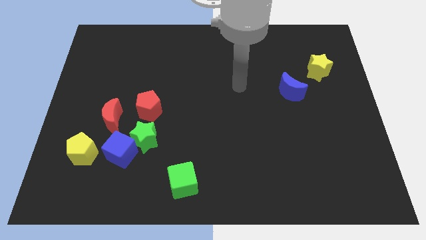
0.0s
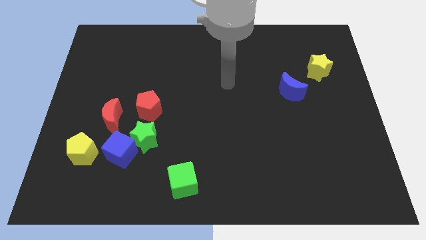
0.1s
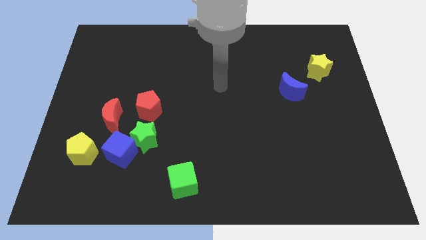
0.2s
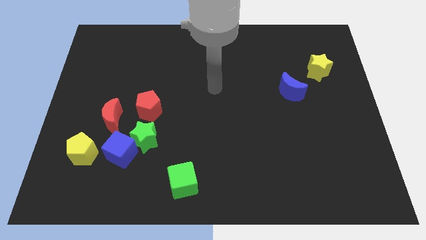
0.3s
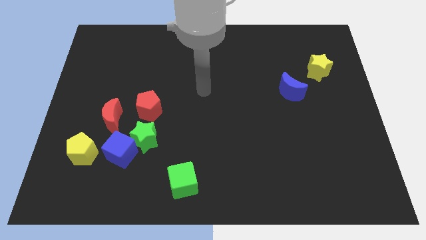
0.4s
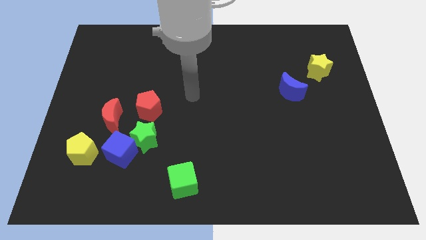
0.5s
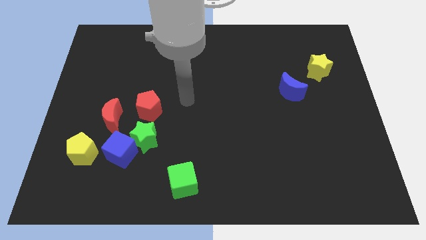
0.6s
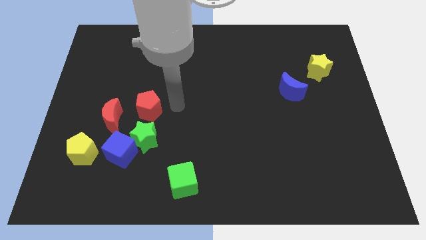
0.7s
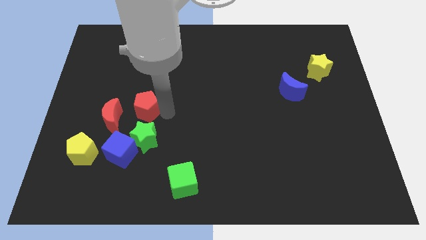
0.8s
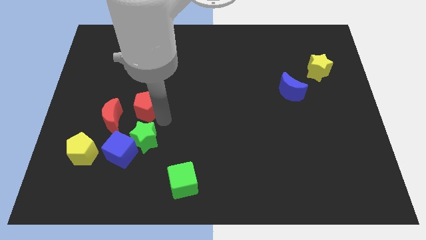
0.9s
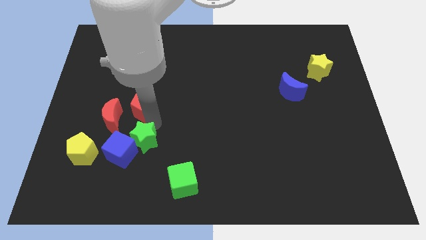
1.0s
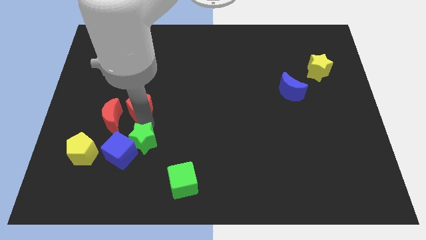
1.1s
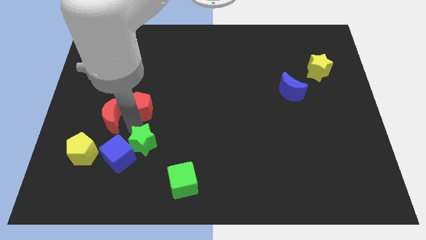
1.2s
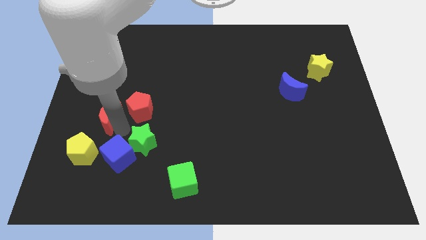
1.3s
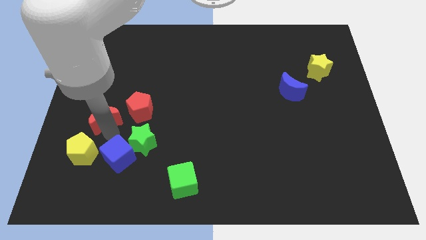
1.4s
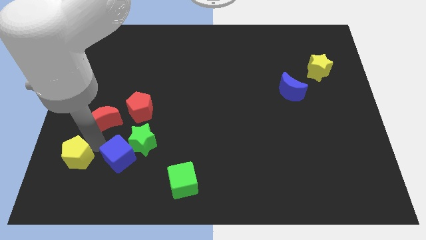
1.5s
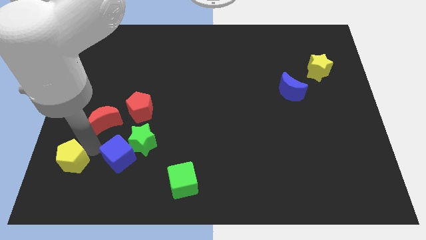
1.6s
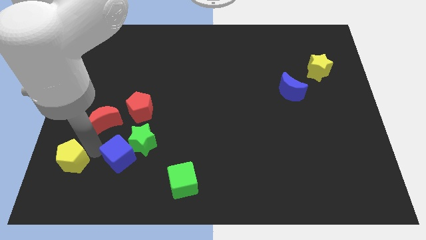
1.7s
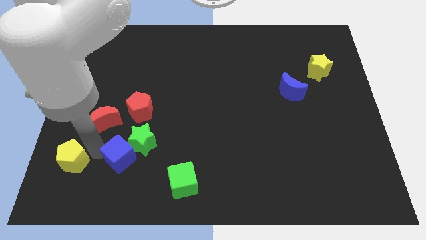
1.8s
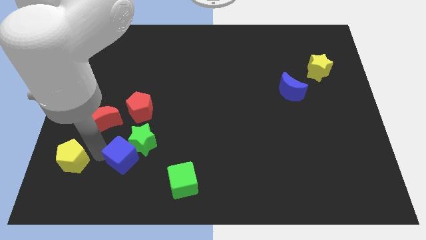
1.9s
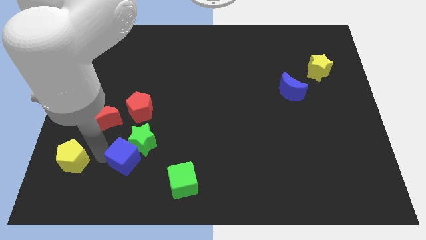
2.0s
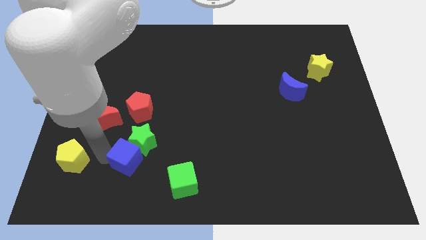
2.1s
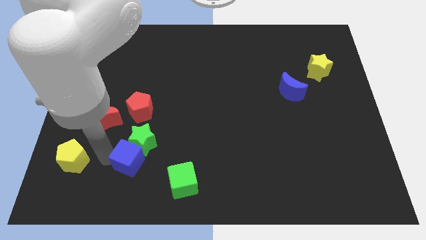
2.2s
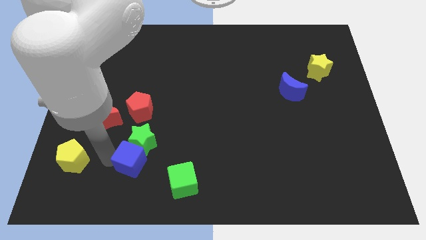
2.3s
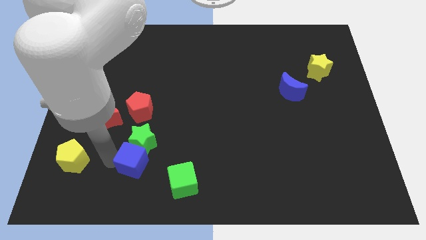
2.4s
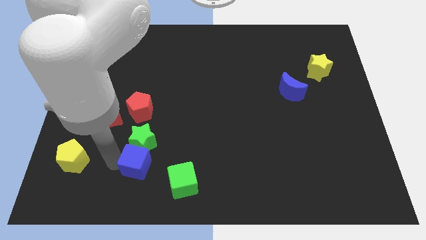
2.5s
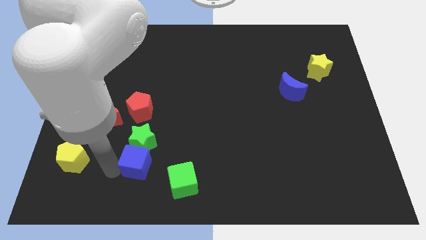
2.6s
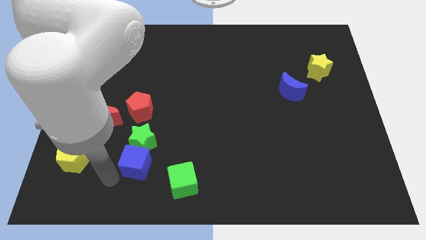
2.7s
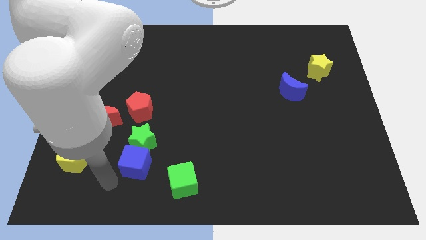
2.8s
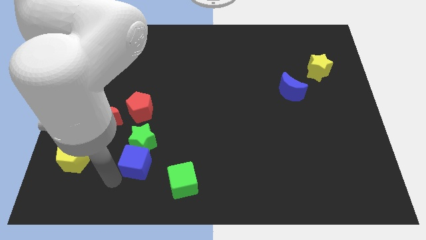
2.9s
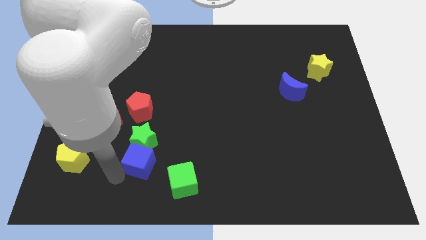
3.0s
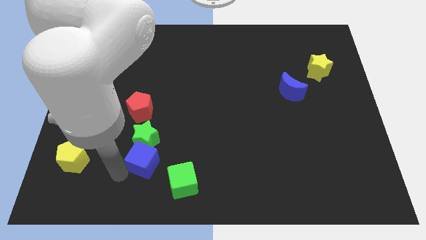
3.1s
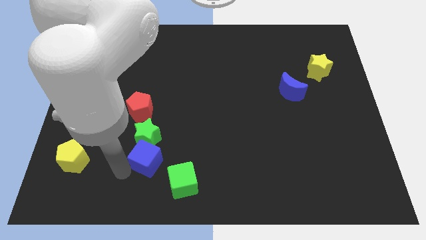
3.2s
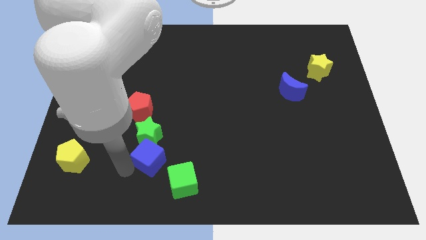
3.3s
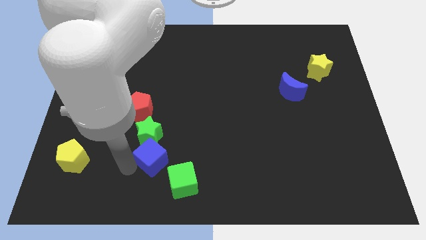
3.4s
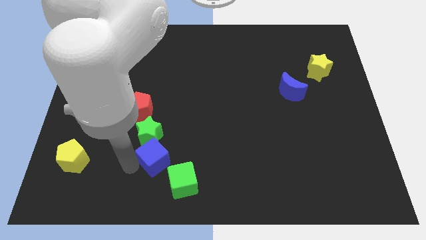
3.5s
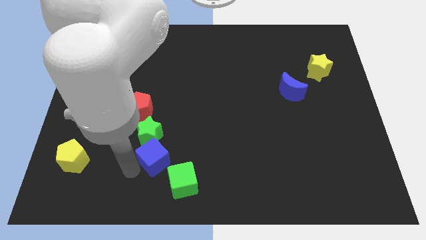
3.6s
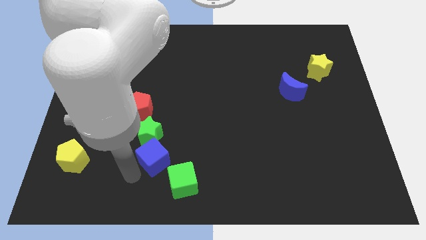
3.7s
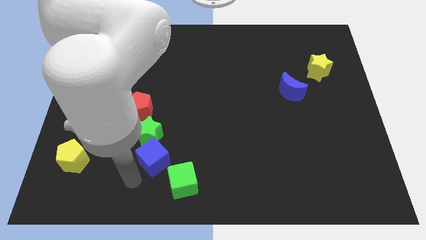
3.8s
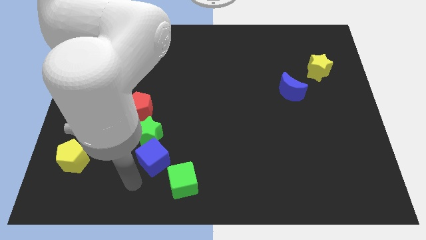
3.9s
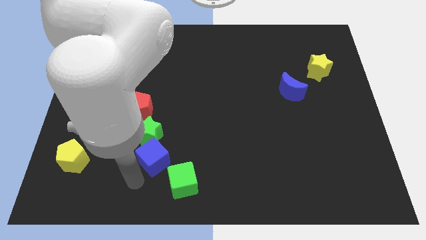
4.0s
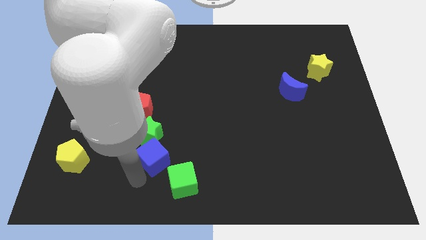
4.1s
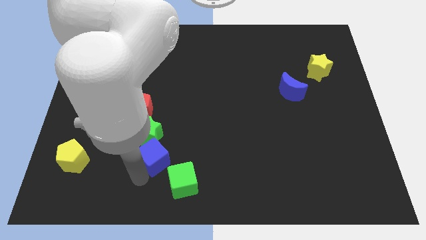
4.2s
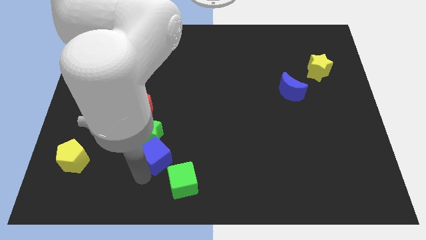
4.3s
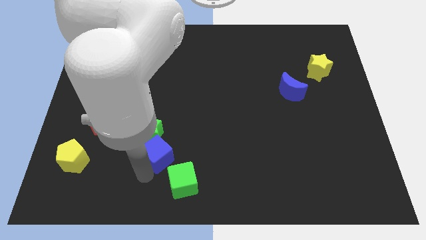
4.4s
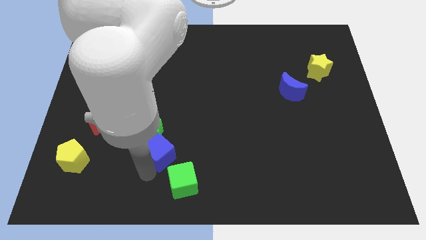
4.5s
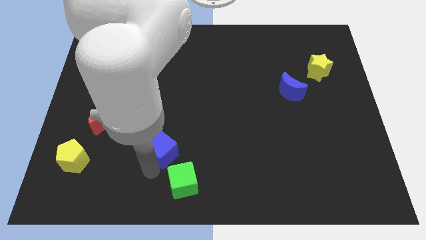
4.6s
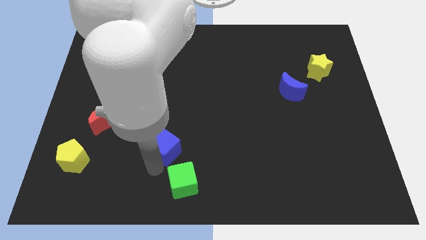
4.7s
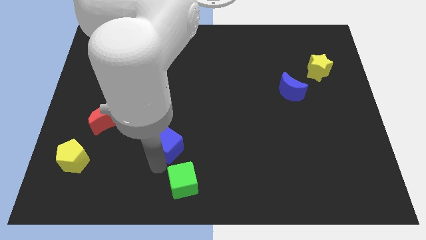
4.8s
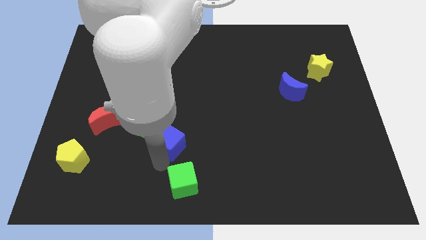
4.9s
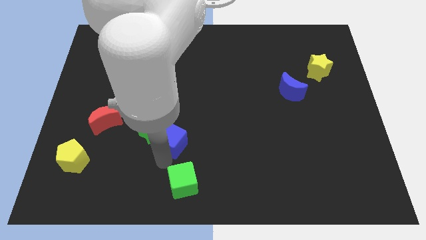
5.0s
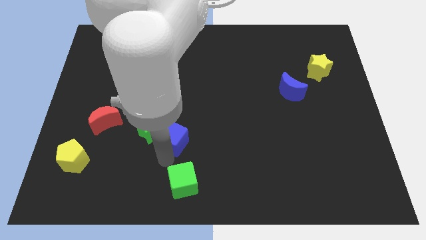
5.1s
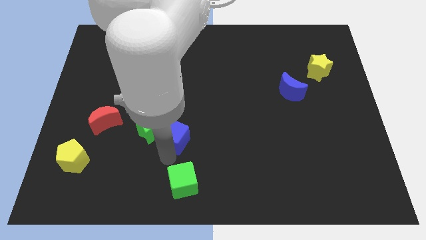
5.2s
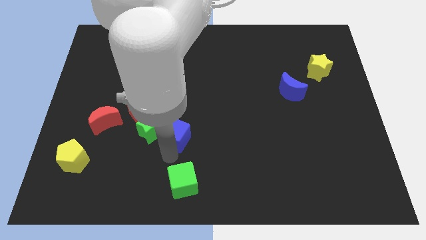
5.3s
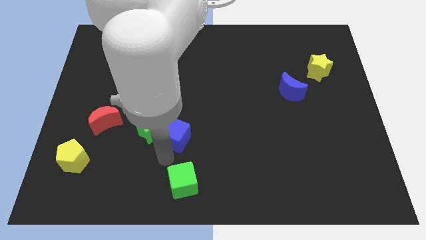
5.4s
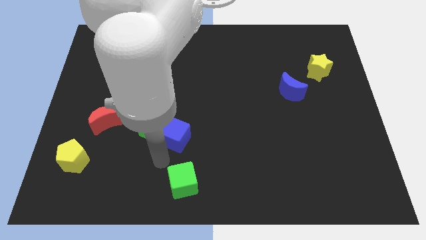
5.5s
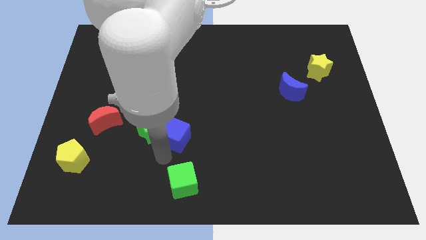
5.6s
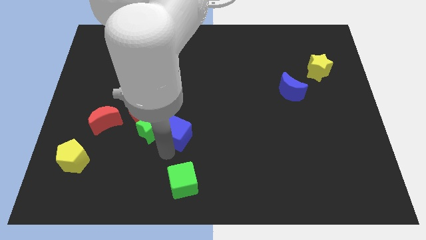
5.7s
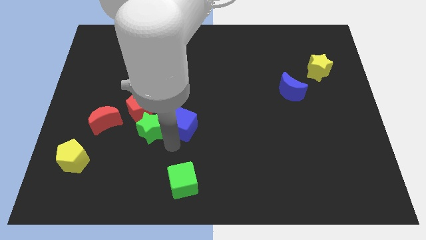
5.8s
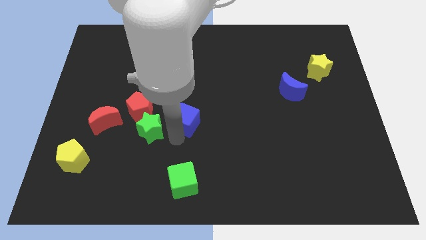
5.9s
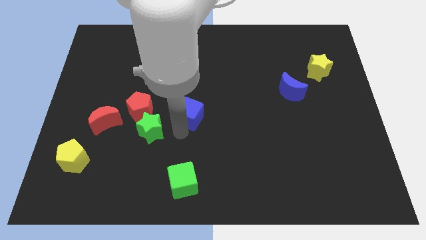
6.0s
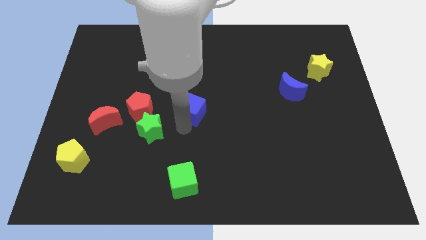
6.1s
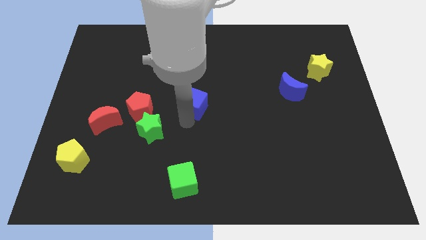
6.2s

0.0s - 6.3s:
move the blue cube upwards and right

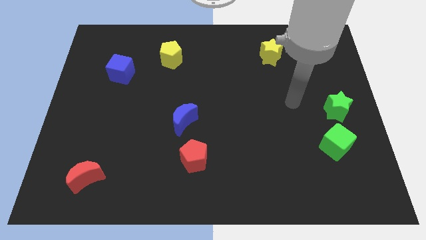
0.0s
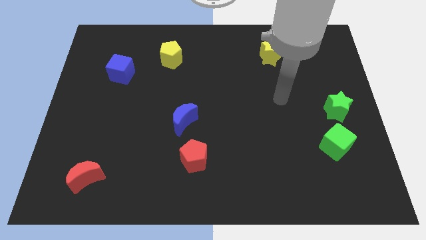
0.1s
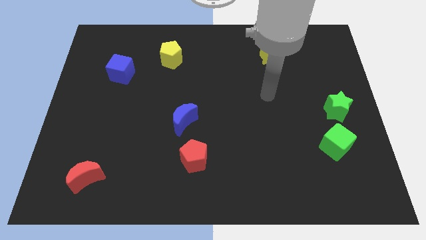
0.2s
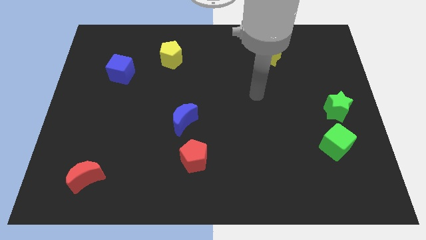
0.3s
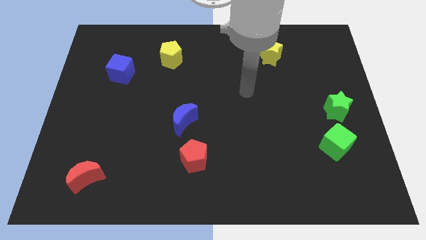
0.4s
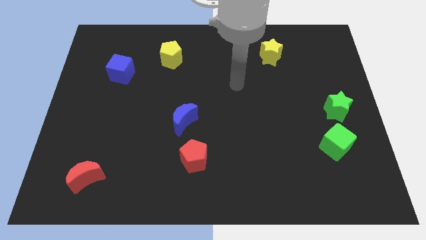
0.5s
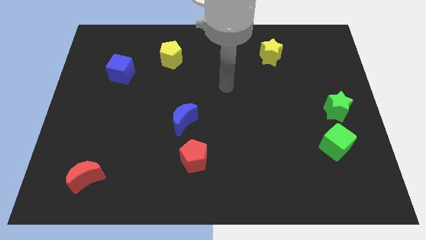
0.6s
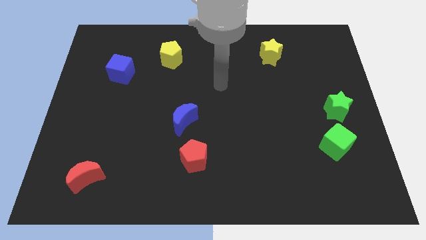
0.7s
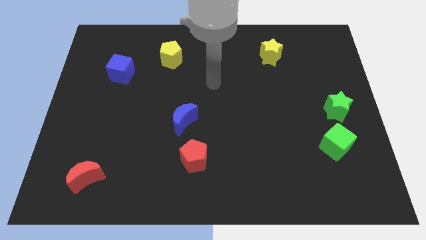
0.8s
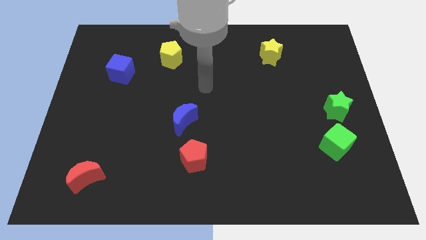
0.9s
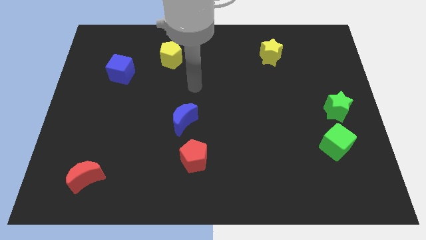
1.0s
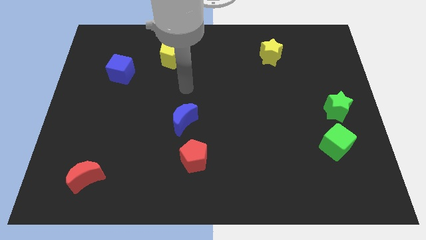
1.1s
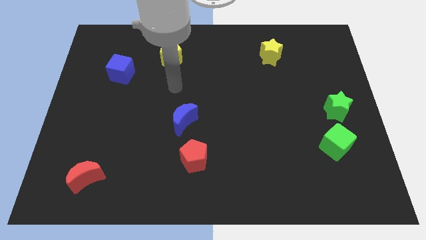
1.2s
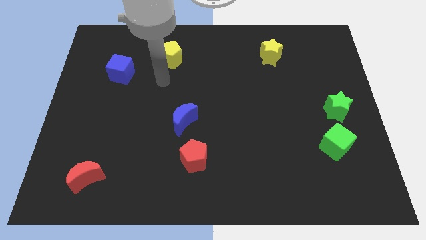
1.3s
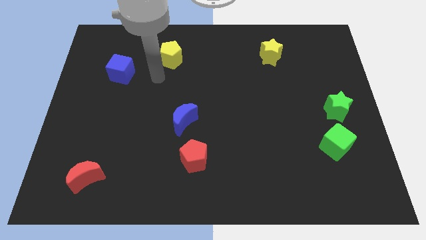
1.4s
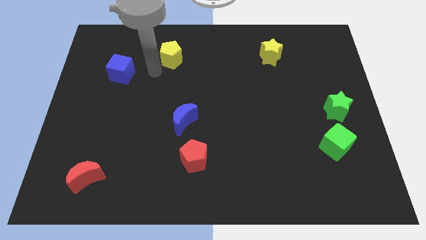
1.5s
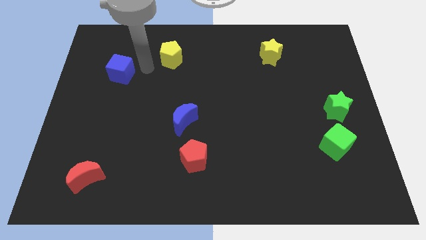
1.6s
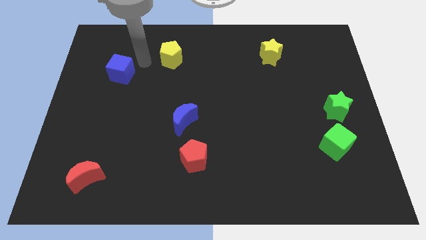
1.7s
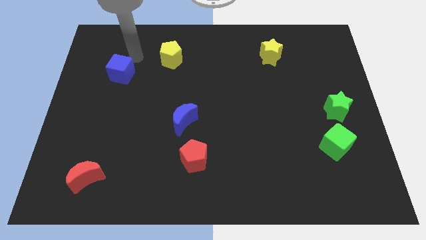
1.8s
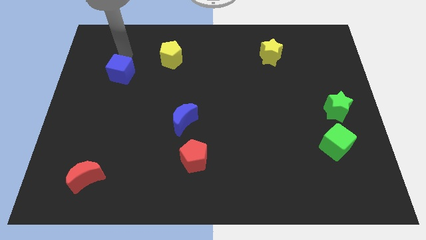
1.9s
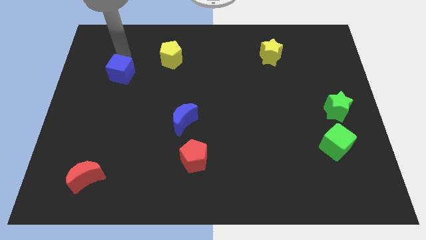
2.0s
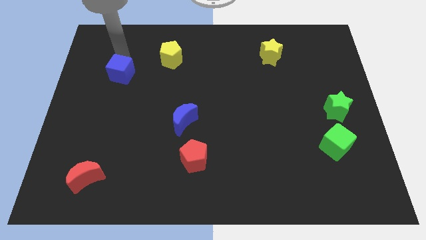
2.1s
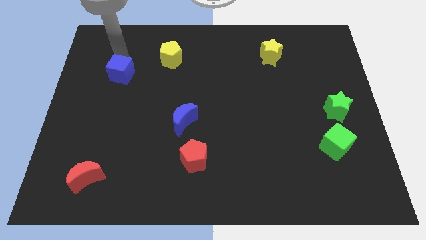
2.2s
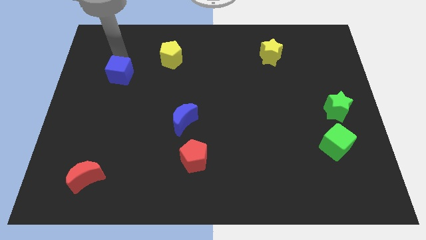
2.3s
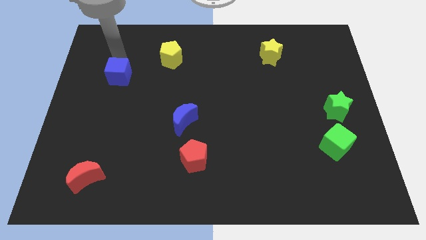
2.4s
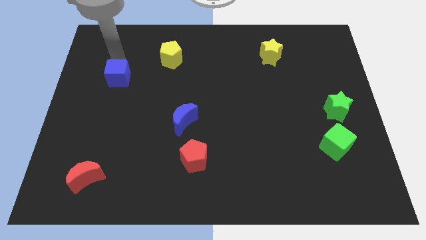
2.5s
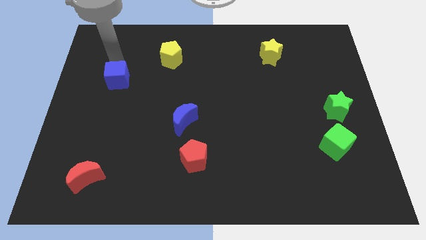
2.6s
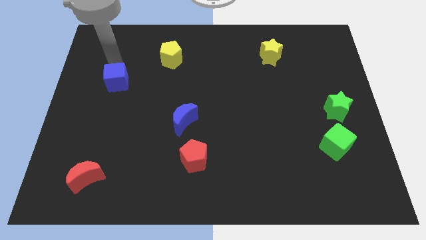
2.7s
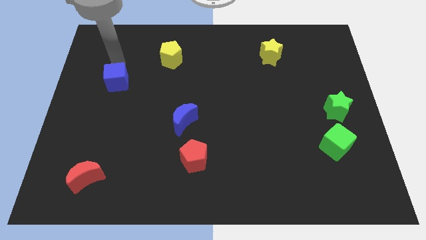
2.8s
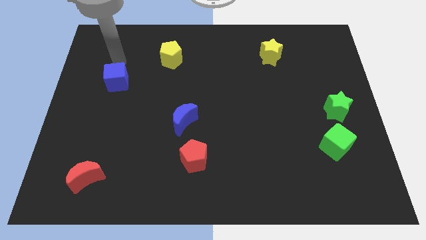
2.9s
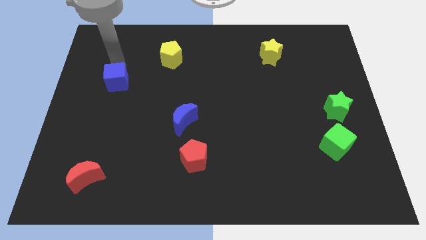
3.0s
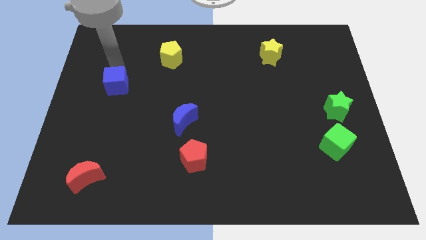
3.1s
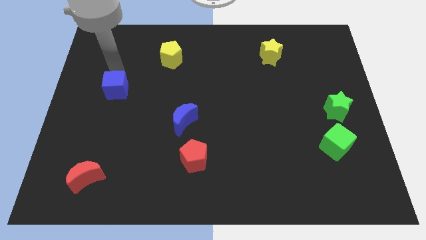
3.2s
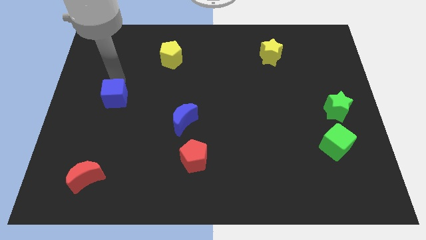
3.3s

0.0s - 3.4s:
slightly move the blue cube down
